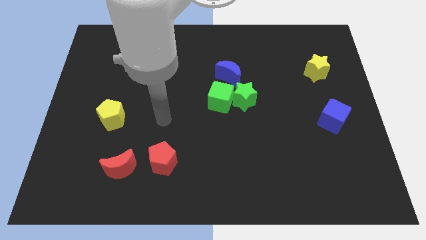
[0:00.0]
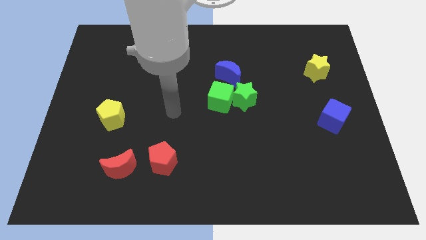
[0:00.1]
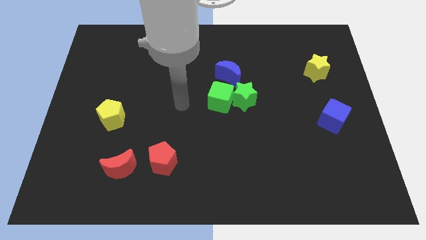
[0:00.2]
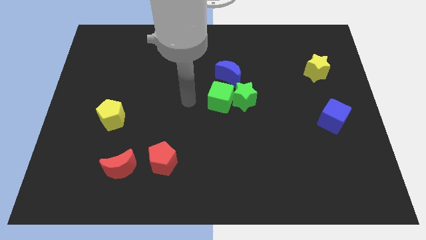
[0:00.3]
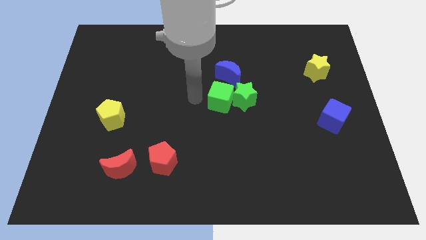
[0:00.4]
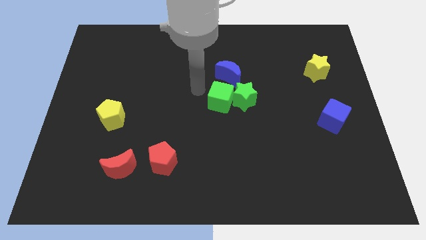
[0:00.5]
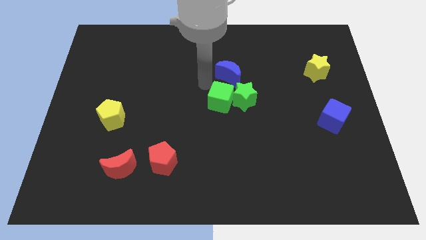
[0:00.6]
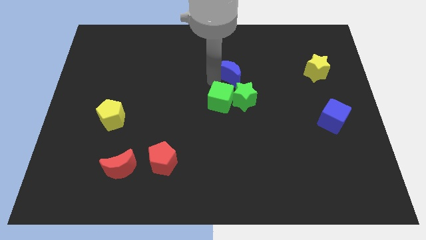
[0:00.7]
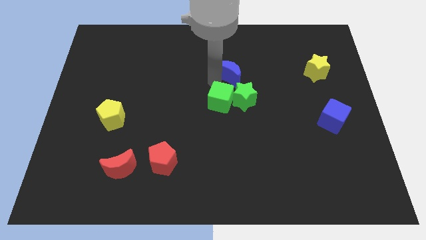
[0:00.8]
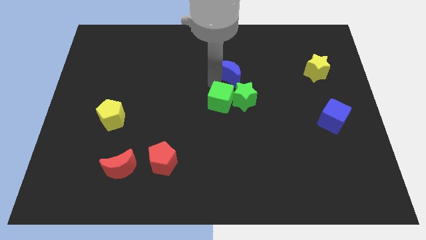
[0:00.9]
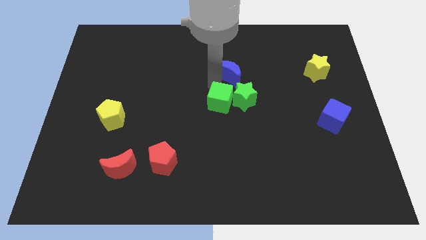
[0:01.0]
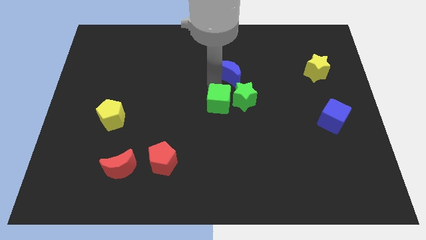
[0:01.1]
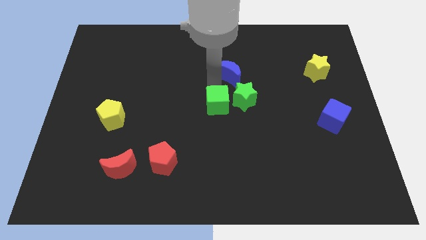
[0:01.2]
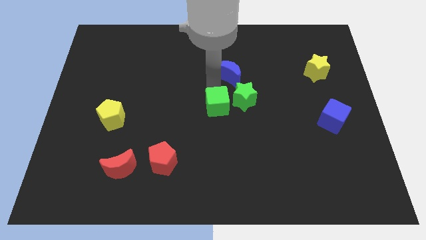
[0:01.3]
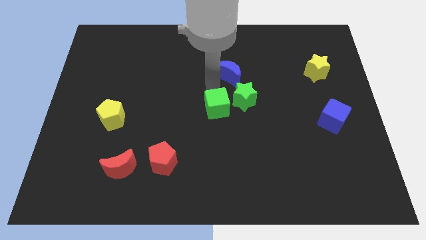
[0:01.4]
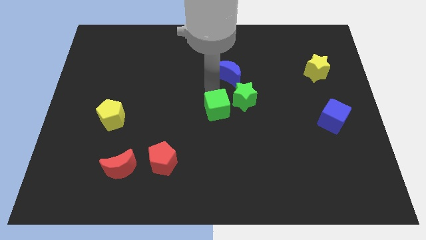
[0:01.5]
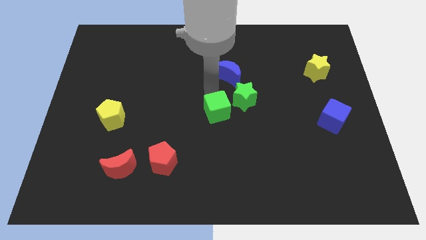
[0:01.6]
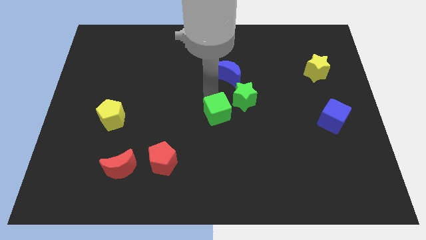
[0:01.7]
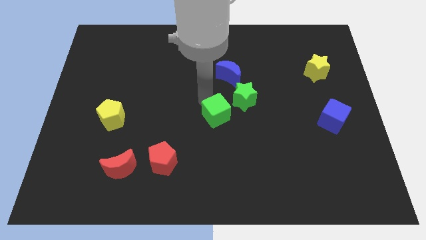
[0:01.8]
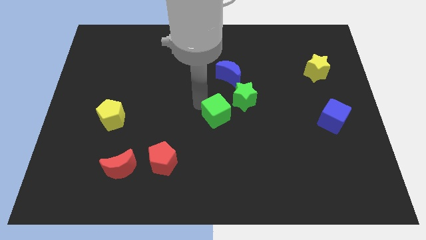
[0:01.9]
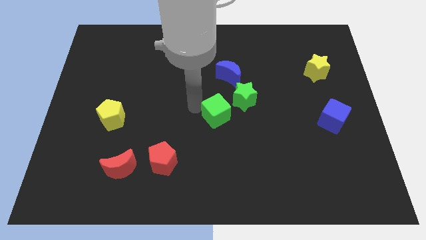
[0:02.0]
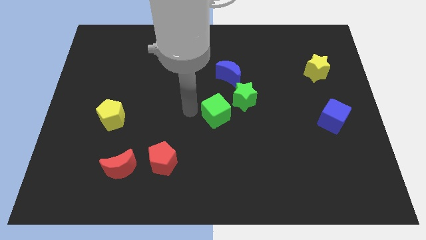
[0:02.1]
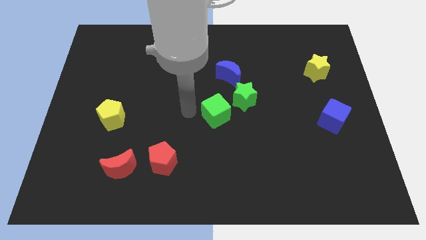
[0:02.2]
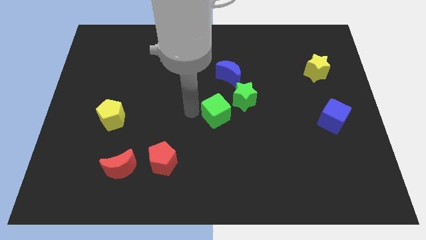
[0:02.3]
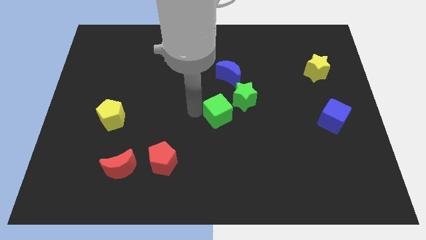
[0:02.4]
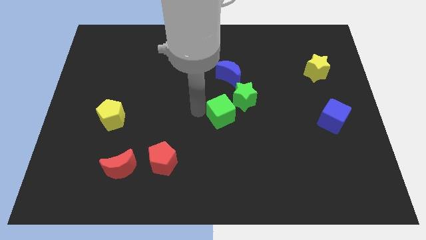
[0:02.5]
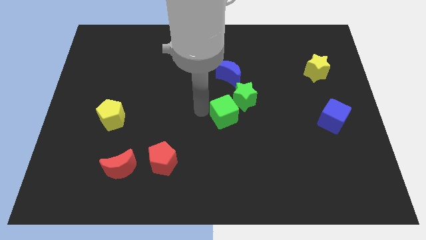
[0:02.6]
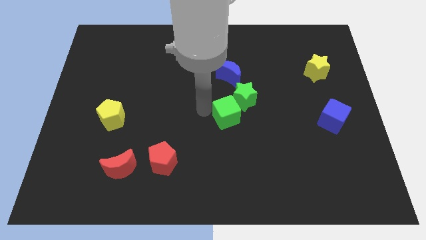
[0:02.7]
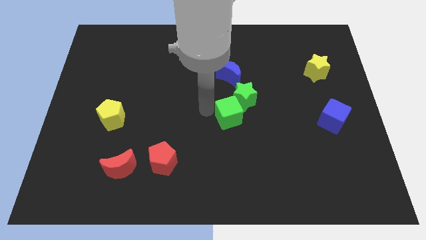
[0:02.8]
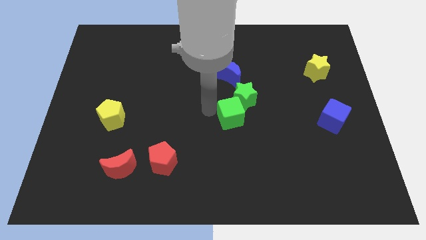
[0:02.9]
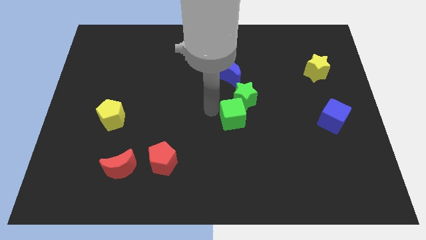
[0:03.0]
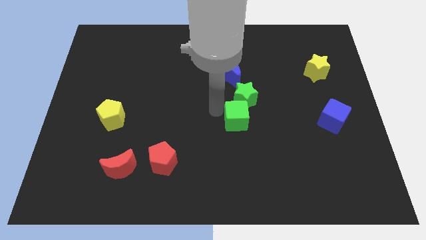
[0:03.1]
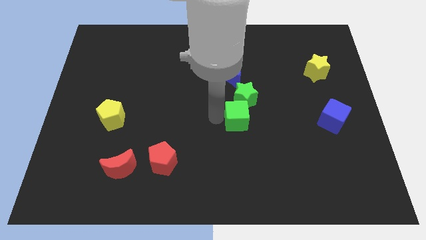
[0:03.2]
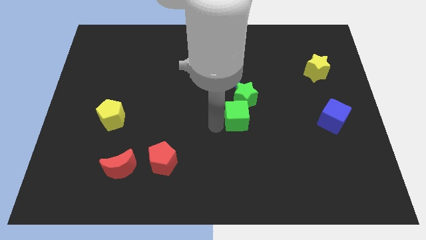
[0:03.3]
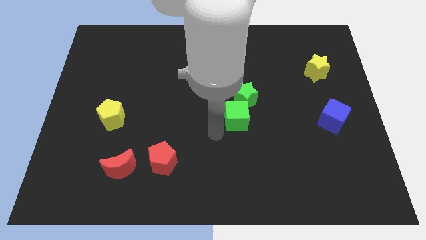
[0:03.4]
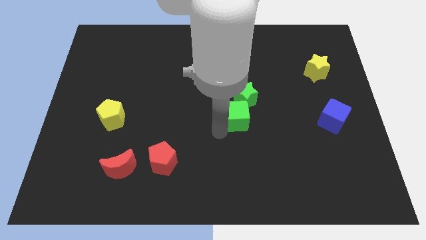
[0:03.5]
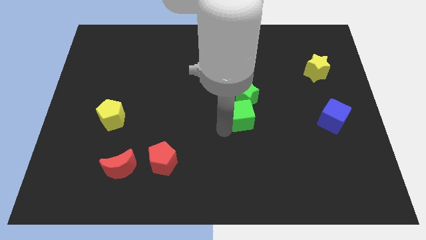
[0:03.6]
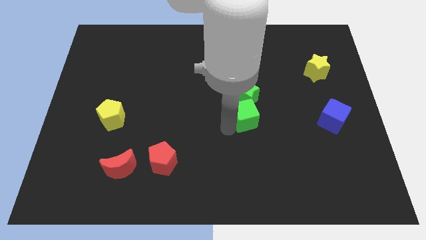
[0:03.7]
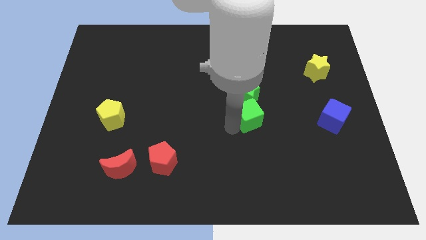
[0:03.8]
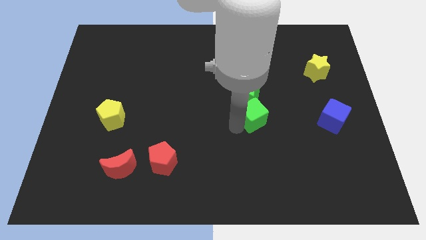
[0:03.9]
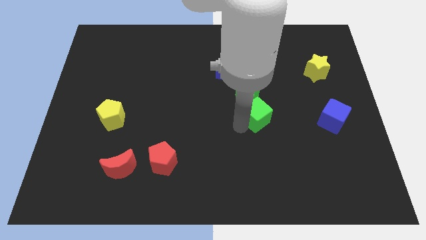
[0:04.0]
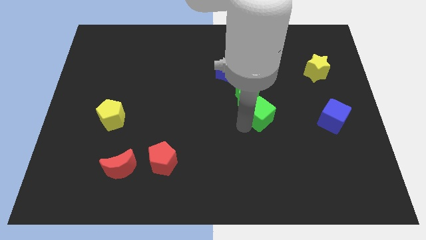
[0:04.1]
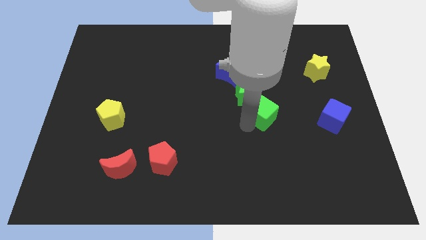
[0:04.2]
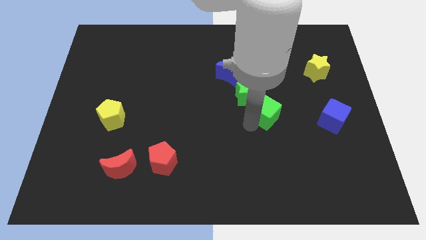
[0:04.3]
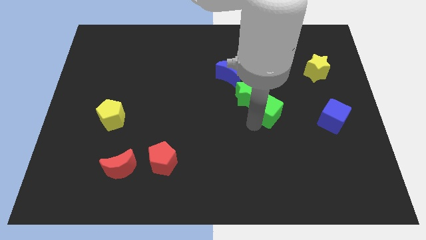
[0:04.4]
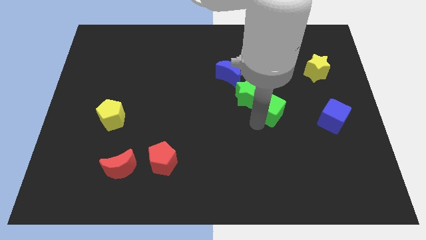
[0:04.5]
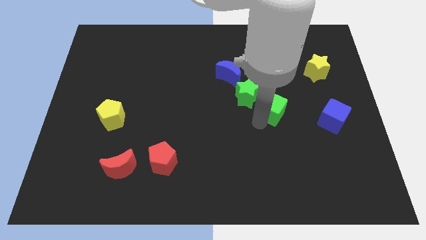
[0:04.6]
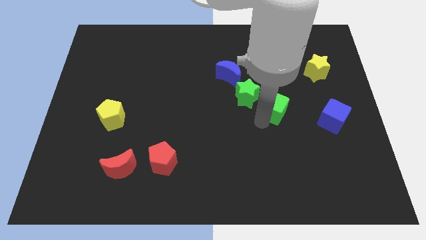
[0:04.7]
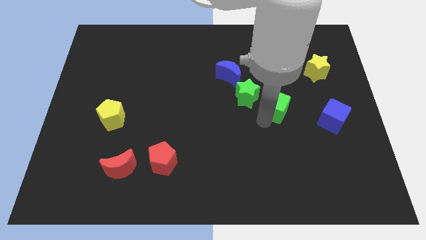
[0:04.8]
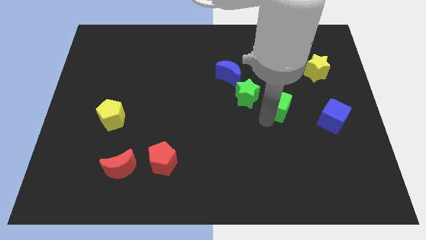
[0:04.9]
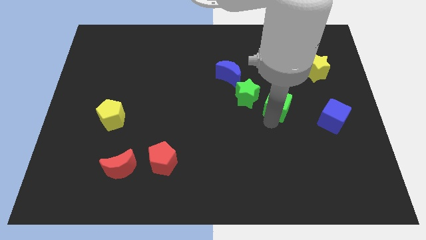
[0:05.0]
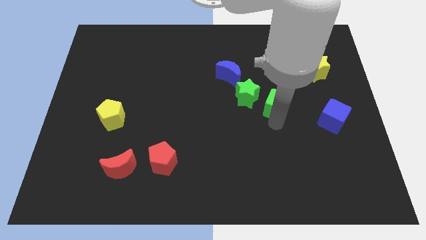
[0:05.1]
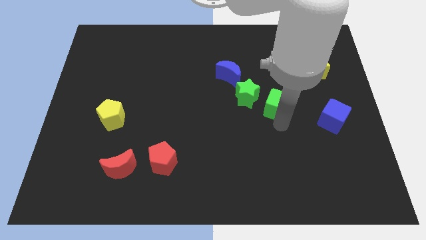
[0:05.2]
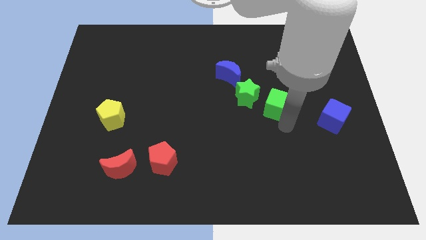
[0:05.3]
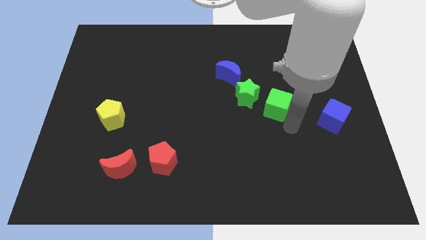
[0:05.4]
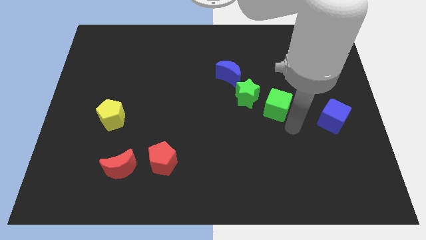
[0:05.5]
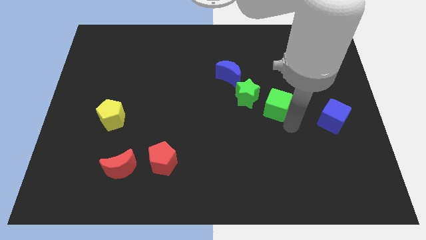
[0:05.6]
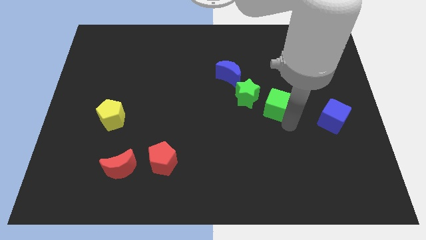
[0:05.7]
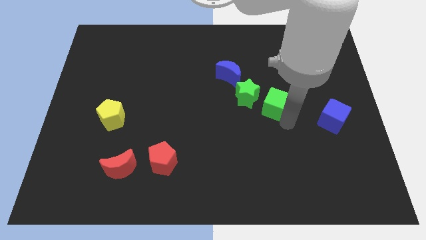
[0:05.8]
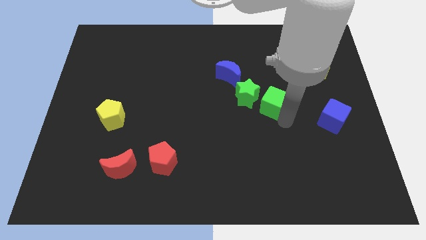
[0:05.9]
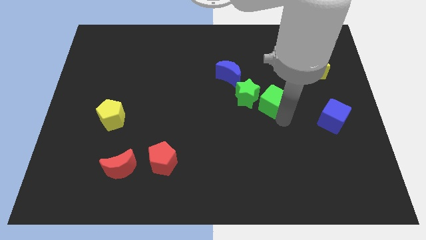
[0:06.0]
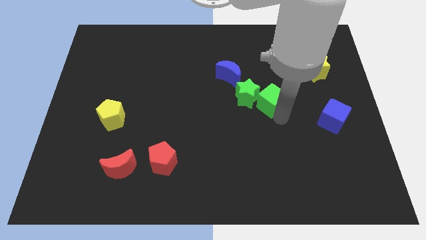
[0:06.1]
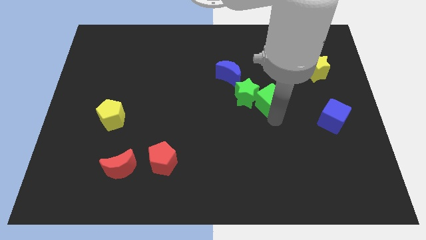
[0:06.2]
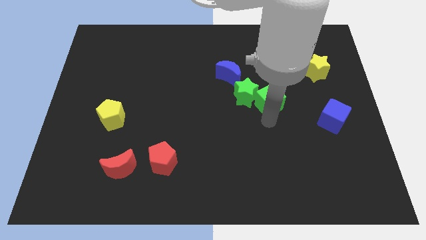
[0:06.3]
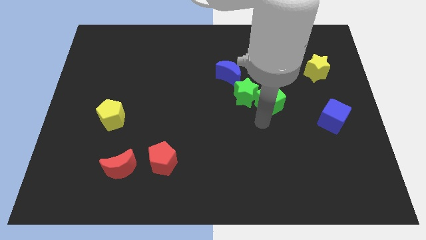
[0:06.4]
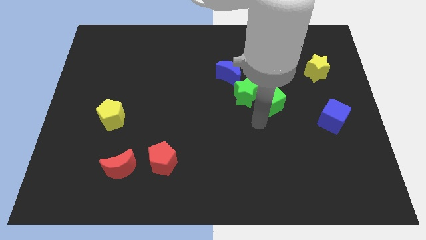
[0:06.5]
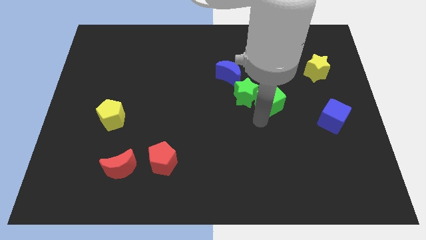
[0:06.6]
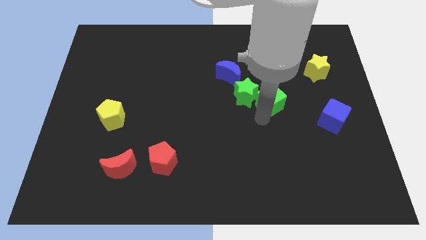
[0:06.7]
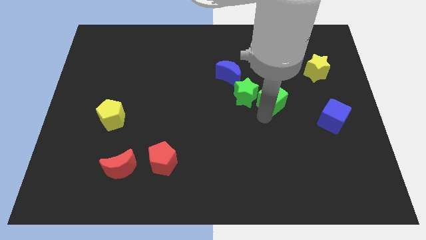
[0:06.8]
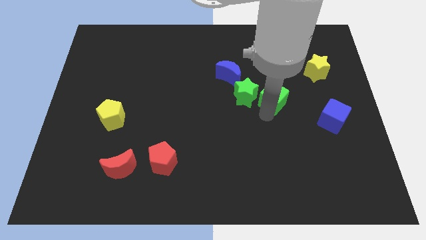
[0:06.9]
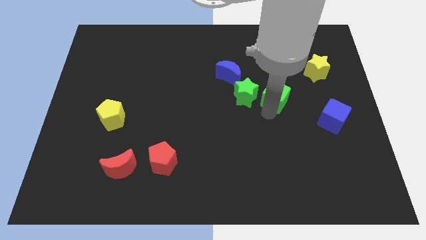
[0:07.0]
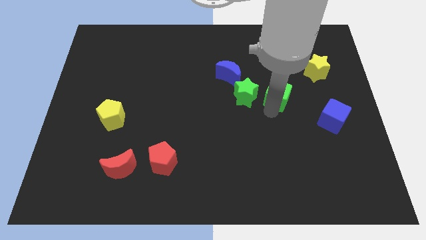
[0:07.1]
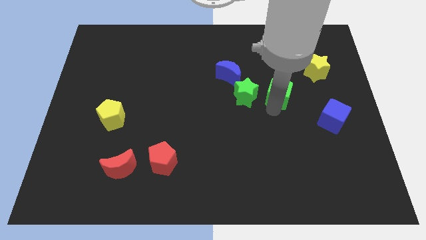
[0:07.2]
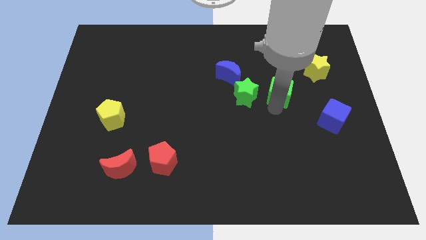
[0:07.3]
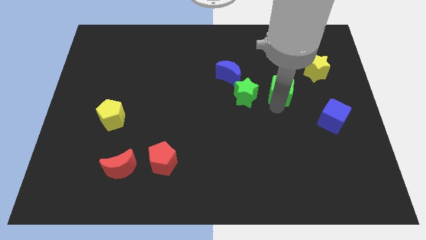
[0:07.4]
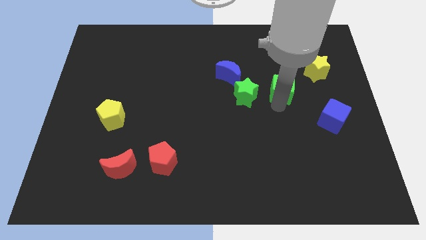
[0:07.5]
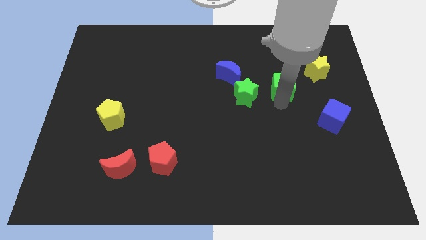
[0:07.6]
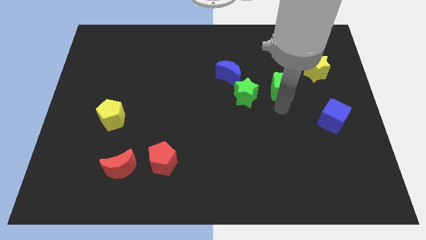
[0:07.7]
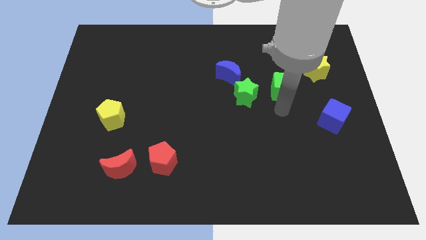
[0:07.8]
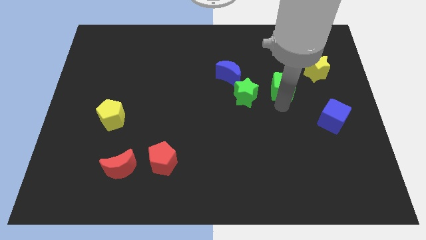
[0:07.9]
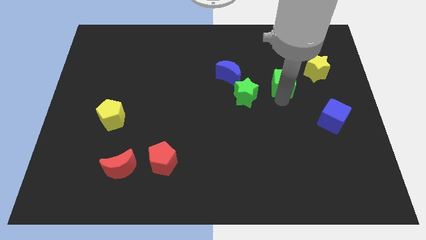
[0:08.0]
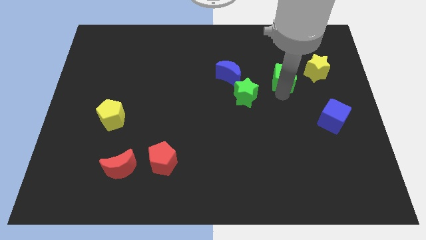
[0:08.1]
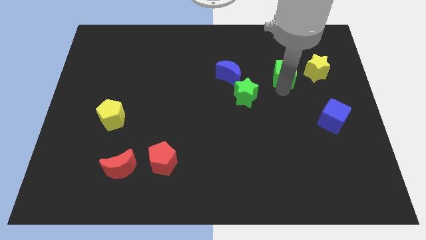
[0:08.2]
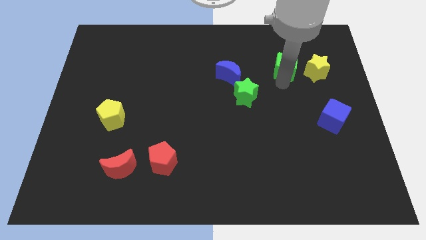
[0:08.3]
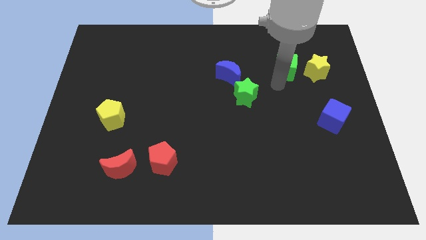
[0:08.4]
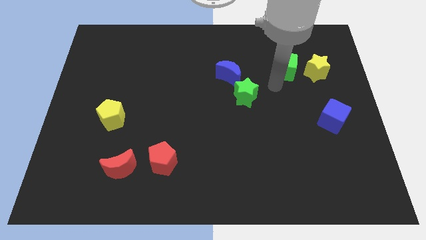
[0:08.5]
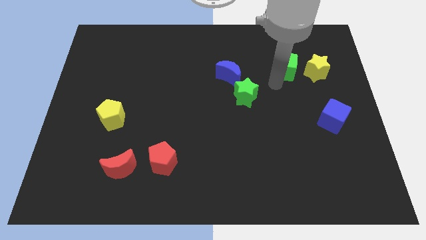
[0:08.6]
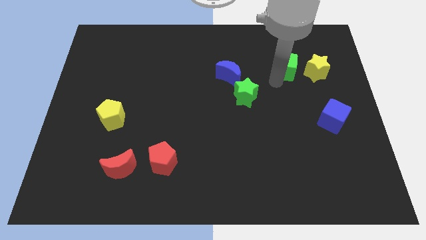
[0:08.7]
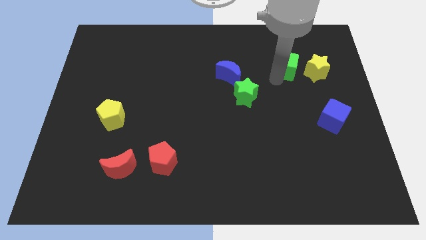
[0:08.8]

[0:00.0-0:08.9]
put the green cube diagonally up and to the left of the yellow star
